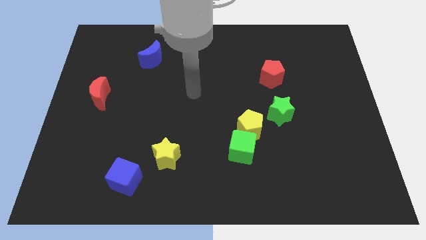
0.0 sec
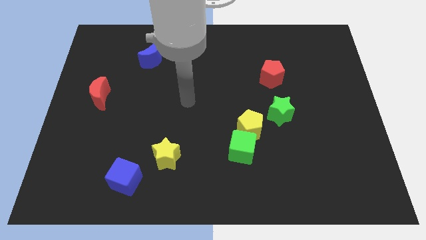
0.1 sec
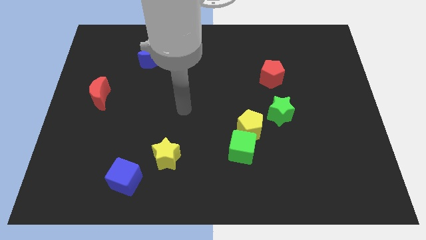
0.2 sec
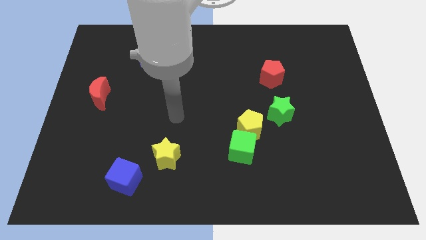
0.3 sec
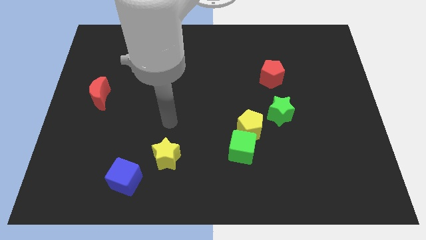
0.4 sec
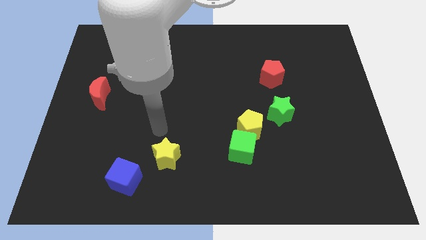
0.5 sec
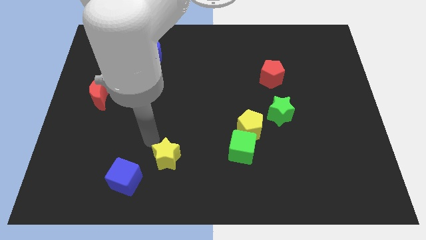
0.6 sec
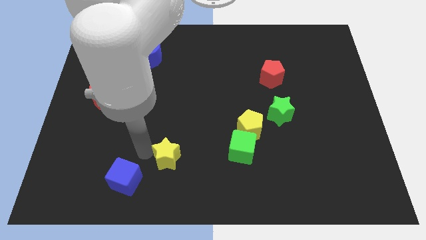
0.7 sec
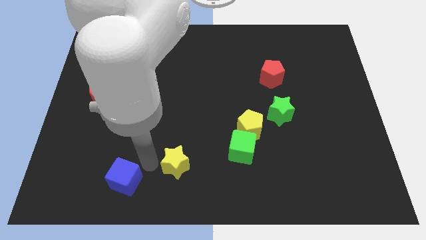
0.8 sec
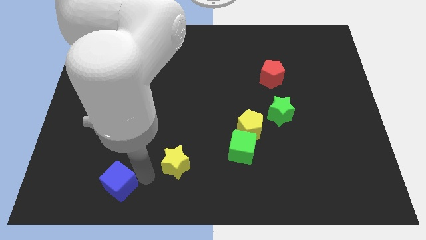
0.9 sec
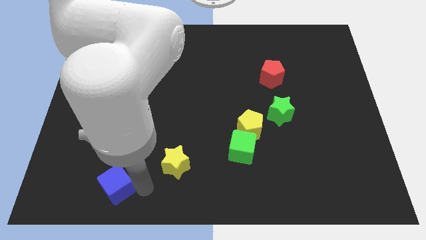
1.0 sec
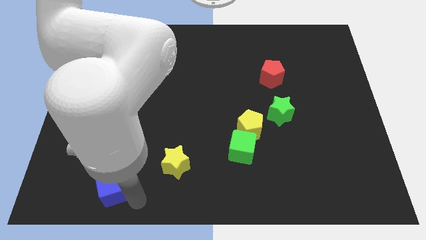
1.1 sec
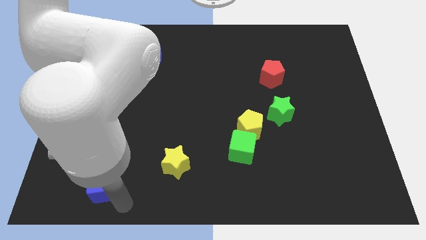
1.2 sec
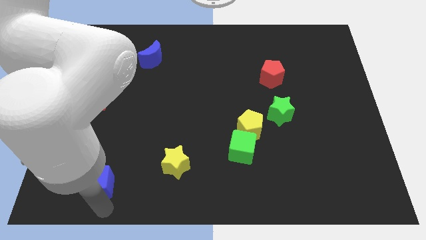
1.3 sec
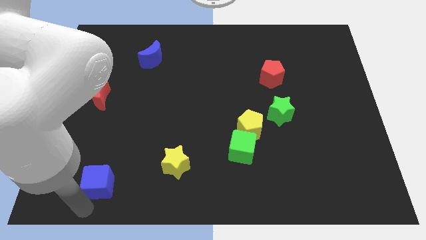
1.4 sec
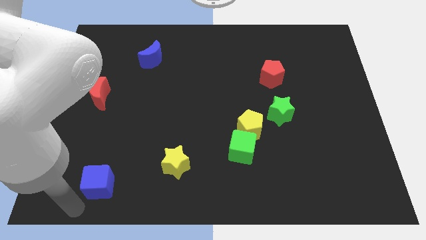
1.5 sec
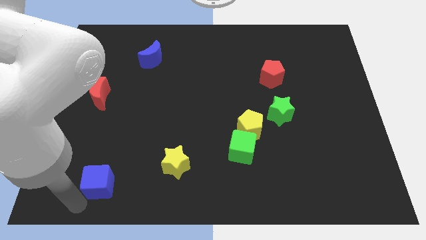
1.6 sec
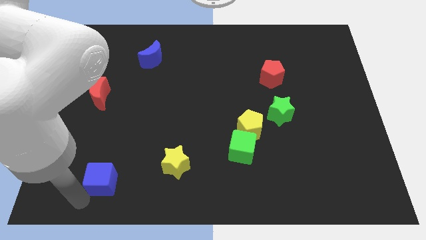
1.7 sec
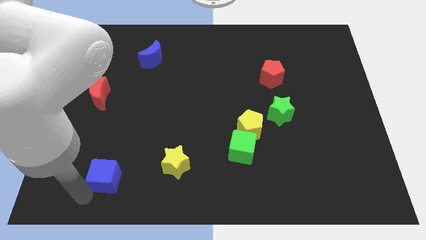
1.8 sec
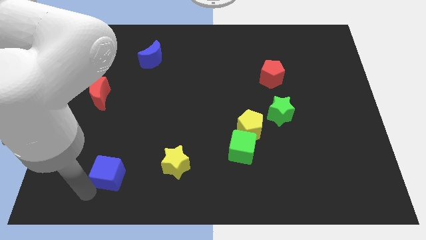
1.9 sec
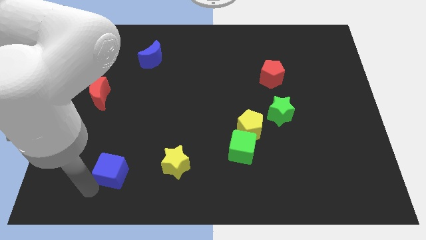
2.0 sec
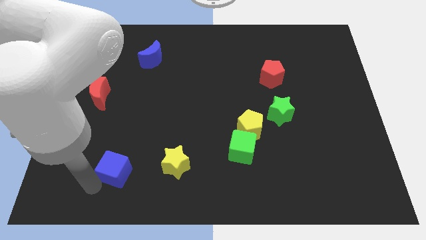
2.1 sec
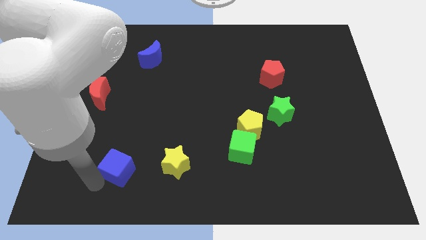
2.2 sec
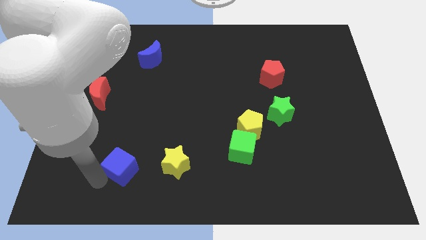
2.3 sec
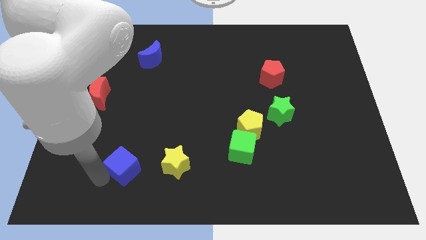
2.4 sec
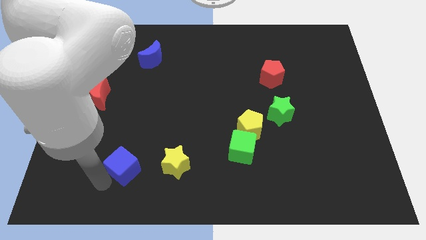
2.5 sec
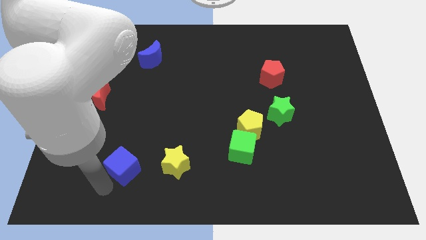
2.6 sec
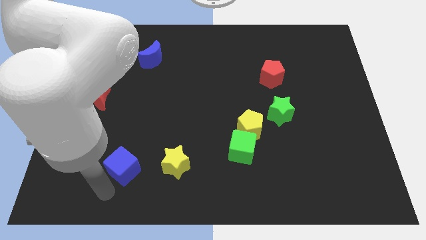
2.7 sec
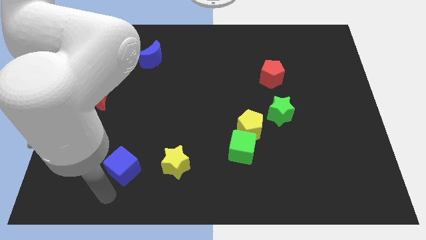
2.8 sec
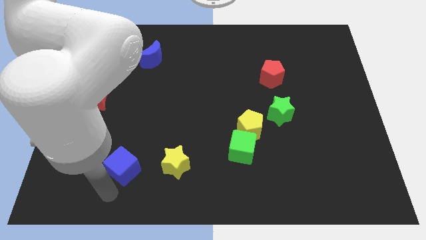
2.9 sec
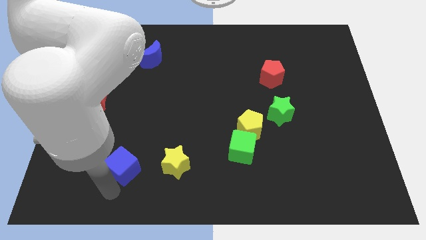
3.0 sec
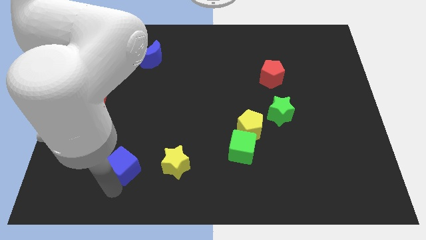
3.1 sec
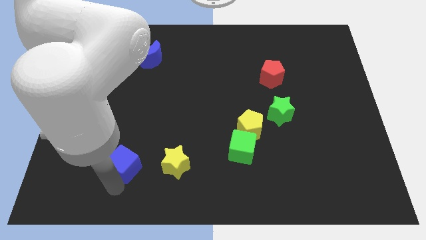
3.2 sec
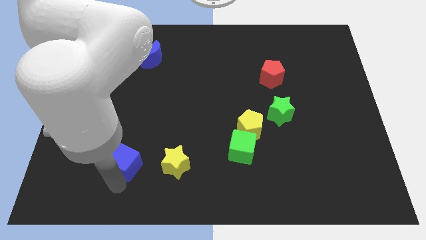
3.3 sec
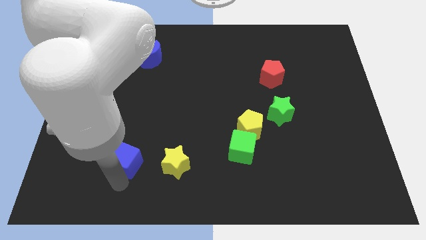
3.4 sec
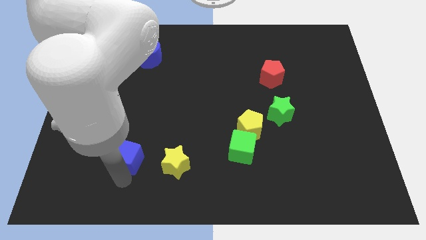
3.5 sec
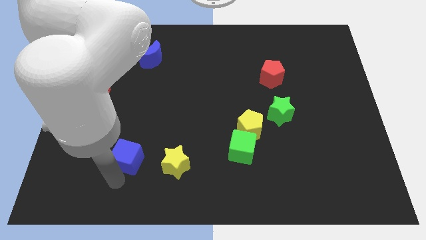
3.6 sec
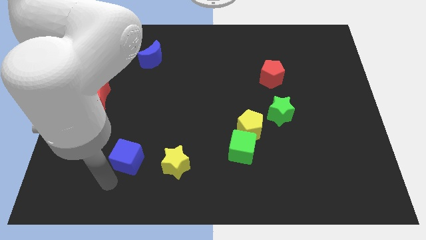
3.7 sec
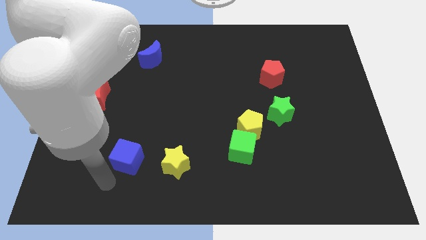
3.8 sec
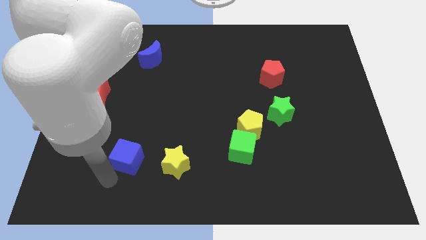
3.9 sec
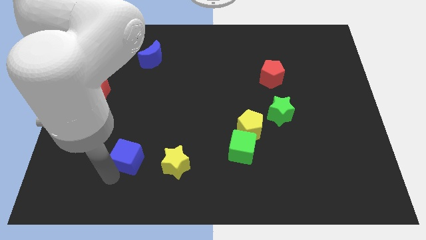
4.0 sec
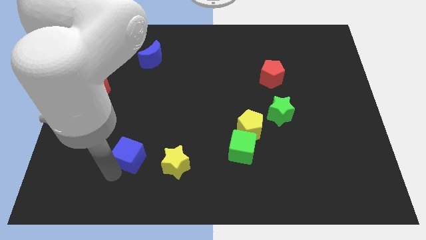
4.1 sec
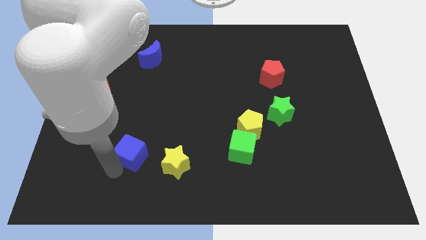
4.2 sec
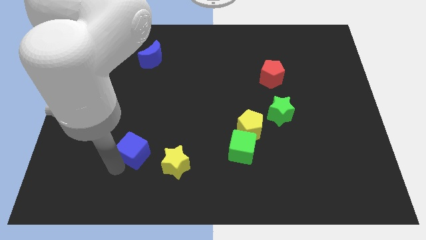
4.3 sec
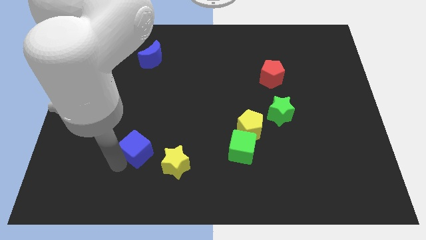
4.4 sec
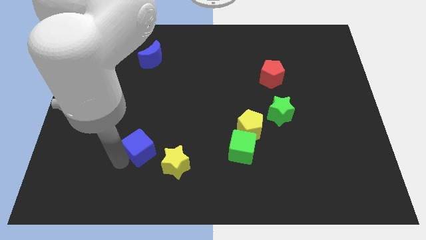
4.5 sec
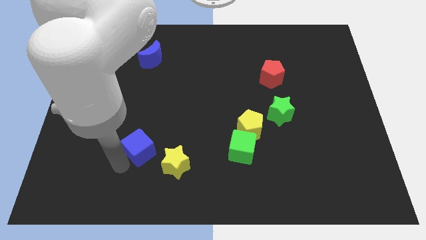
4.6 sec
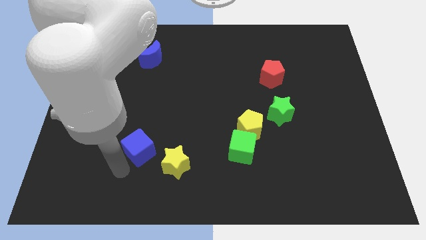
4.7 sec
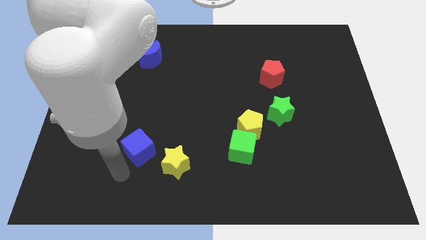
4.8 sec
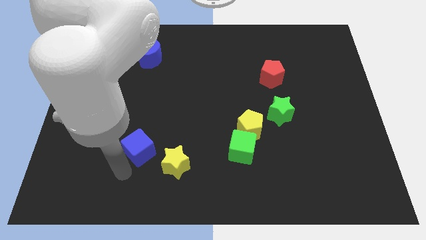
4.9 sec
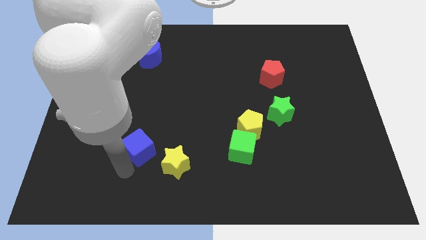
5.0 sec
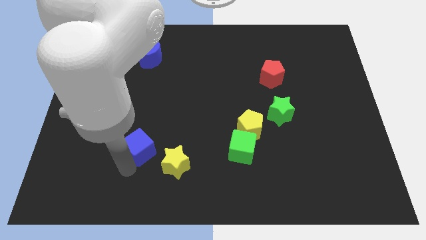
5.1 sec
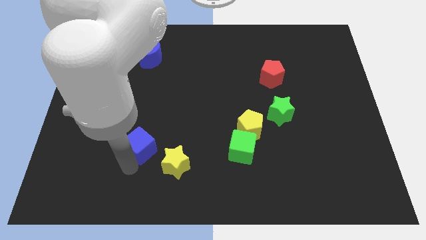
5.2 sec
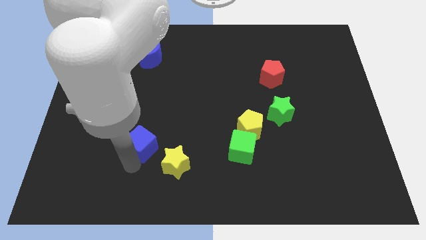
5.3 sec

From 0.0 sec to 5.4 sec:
push the blue cube up and to the right diagonally slightly

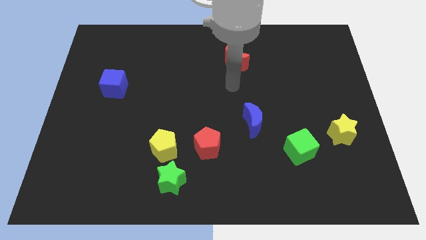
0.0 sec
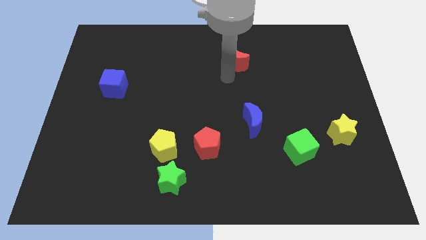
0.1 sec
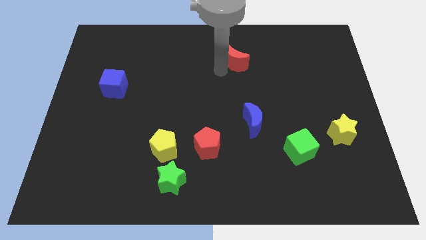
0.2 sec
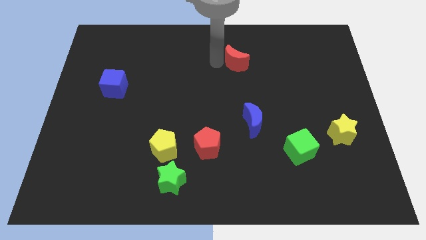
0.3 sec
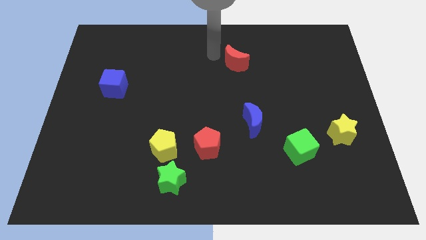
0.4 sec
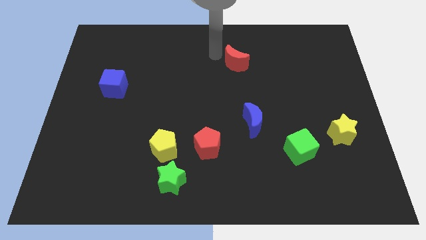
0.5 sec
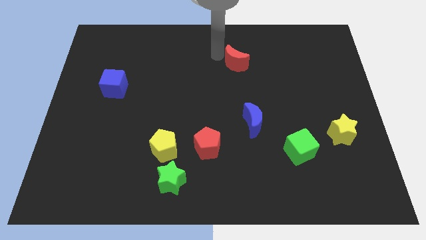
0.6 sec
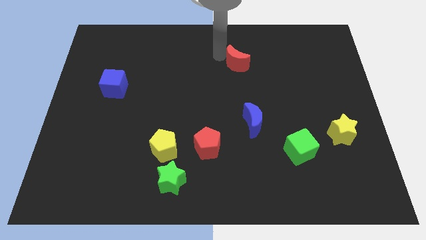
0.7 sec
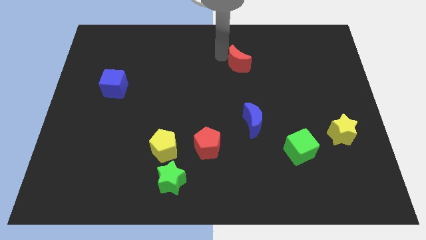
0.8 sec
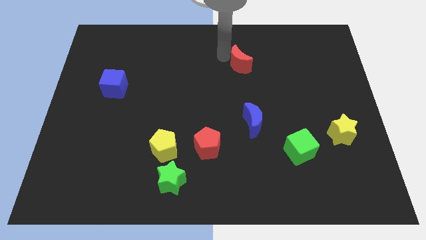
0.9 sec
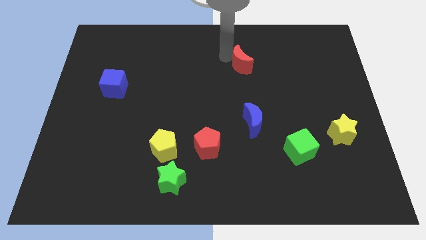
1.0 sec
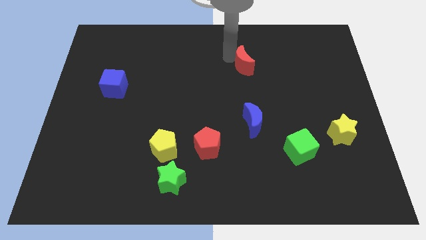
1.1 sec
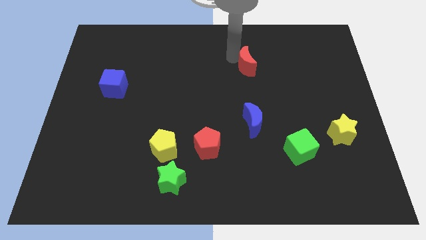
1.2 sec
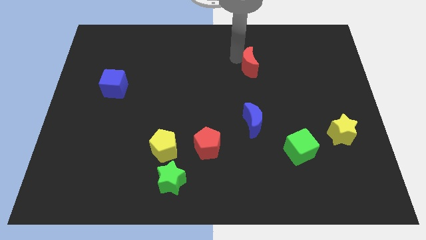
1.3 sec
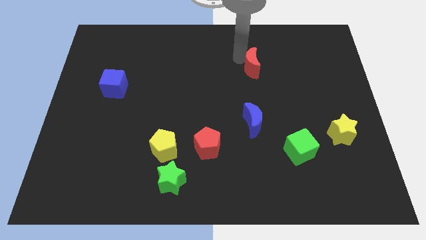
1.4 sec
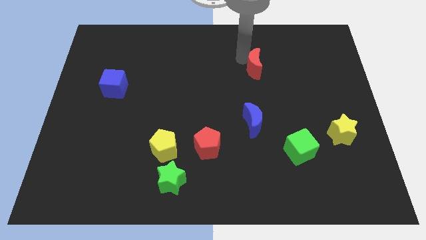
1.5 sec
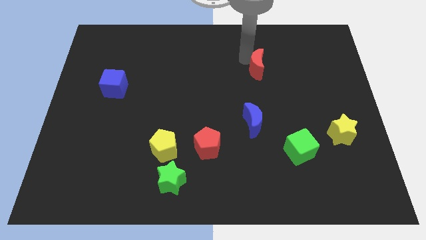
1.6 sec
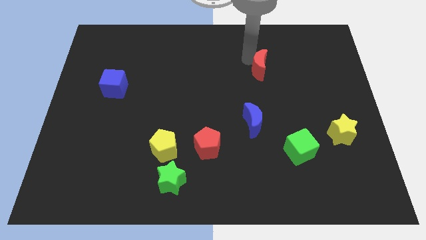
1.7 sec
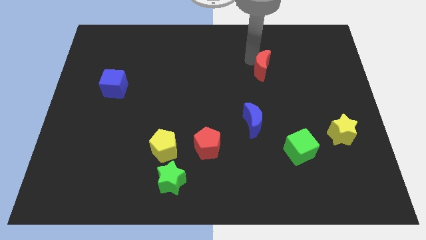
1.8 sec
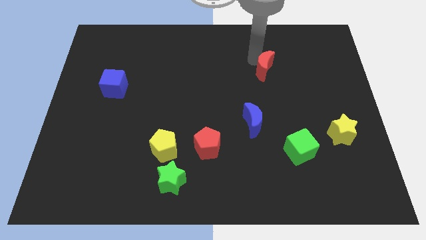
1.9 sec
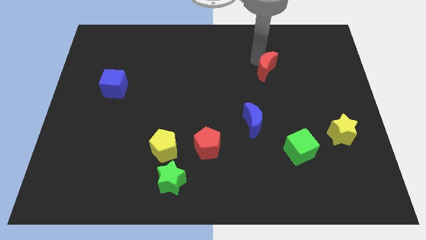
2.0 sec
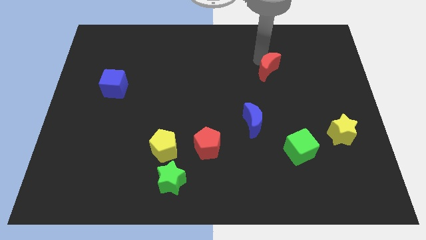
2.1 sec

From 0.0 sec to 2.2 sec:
slightly move the red moon diagonally downwards and right

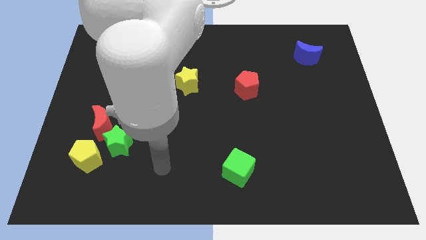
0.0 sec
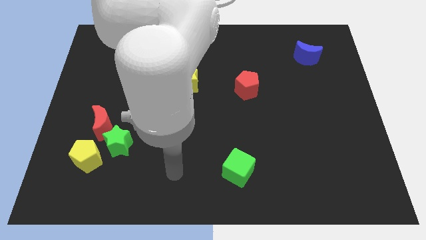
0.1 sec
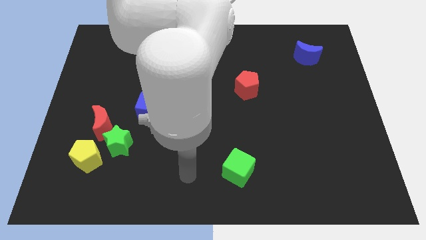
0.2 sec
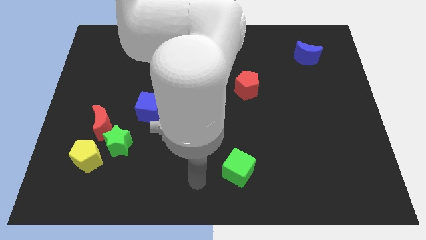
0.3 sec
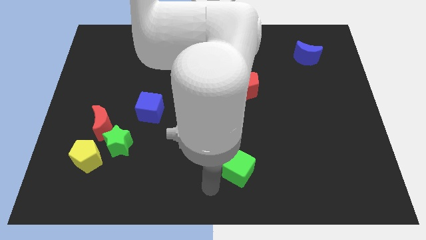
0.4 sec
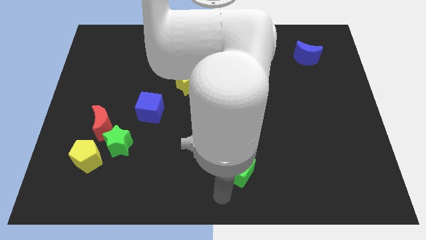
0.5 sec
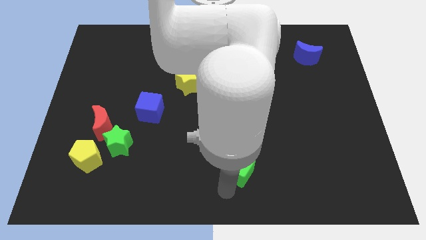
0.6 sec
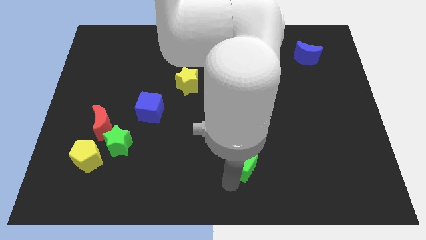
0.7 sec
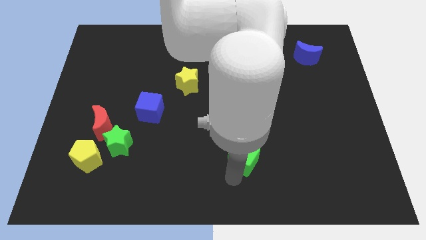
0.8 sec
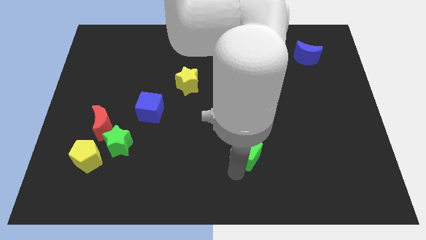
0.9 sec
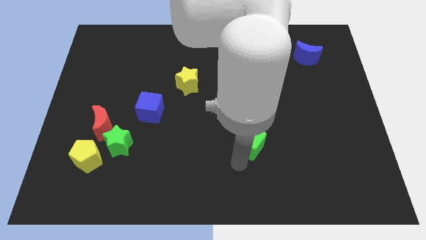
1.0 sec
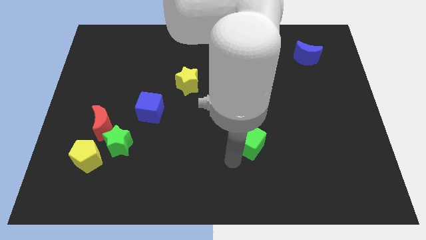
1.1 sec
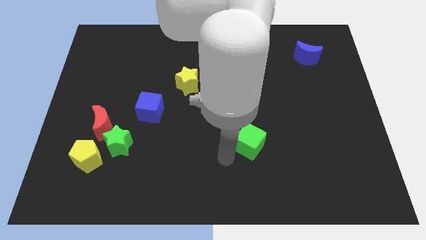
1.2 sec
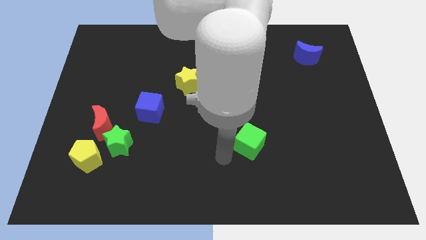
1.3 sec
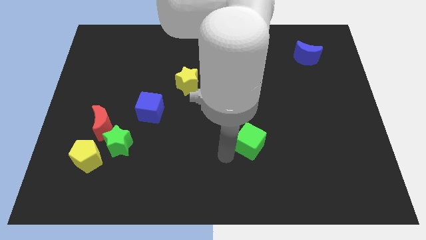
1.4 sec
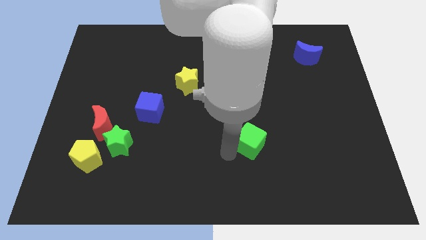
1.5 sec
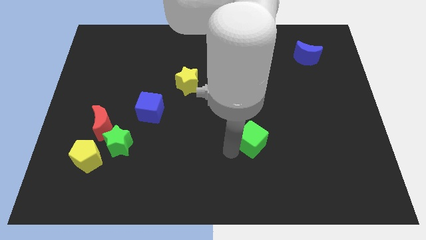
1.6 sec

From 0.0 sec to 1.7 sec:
push the green cube a bit diagonally upwards and to the right
